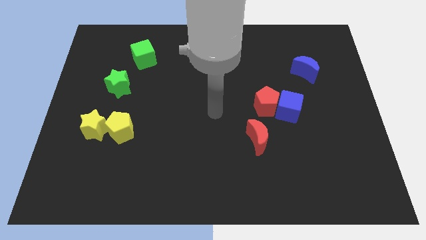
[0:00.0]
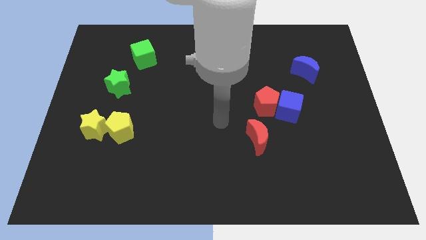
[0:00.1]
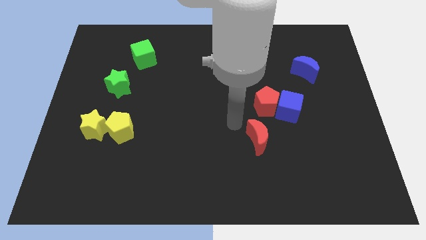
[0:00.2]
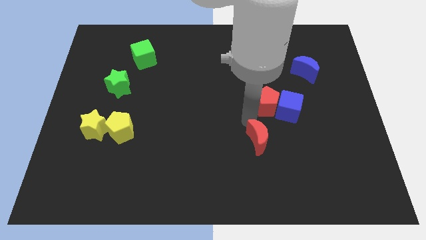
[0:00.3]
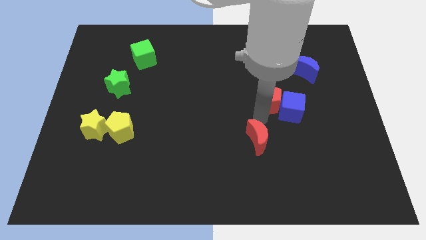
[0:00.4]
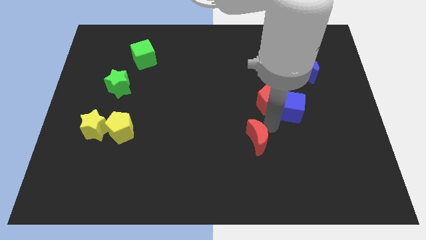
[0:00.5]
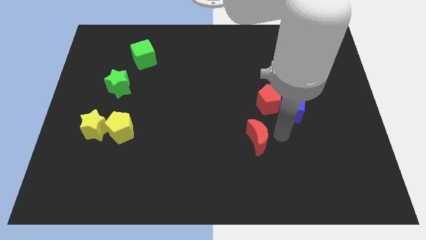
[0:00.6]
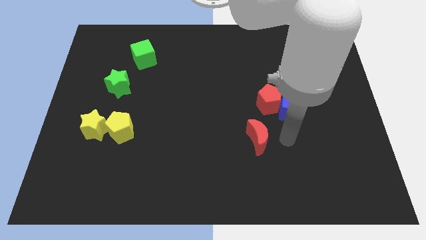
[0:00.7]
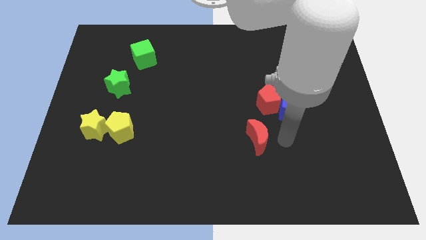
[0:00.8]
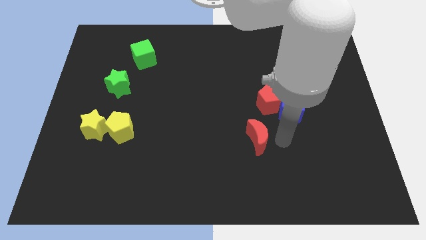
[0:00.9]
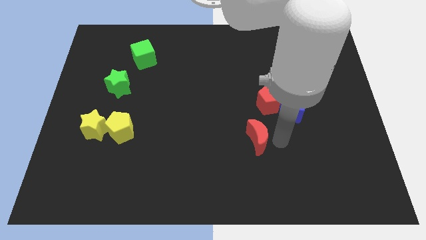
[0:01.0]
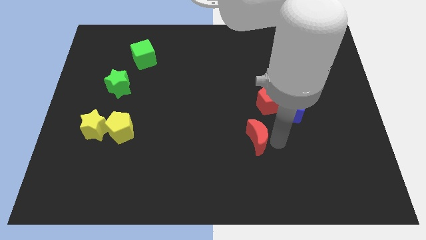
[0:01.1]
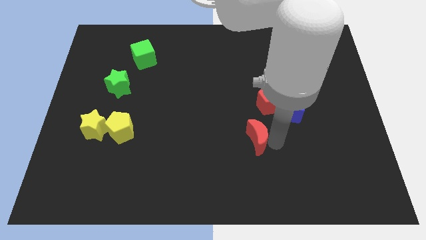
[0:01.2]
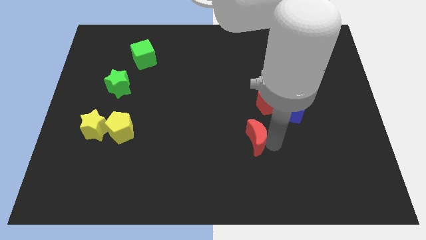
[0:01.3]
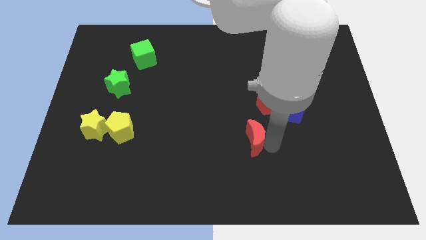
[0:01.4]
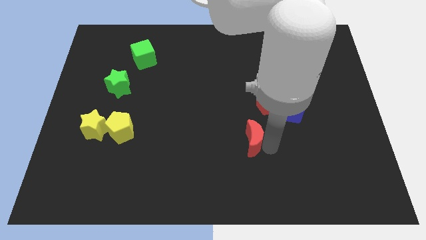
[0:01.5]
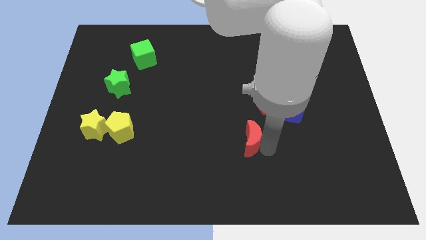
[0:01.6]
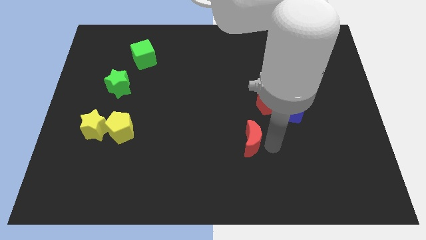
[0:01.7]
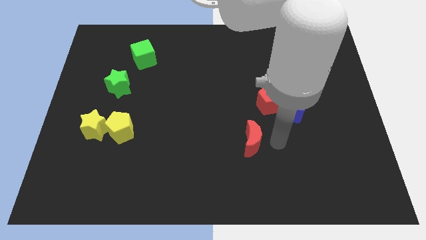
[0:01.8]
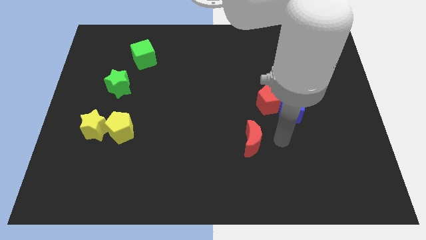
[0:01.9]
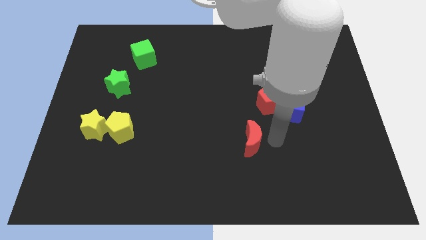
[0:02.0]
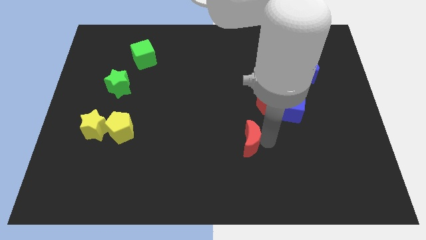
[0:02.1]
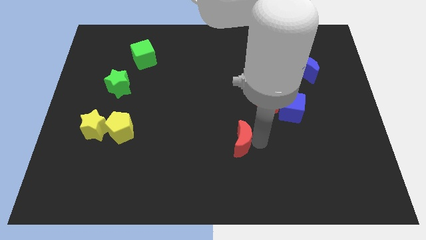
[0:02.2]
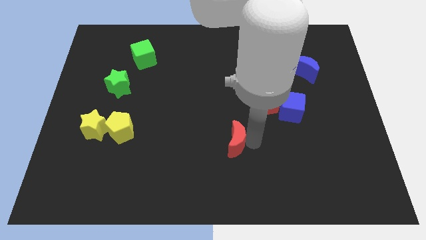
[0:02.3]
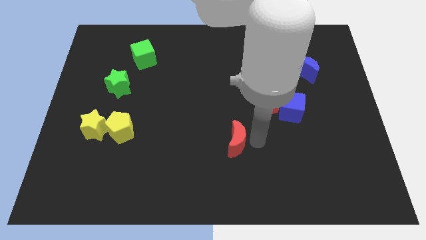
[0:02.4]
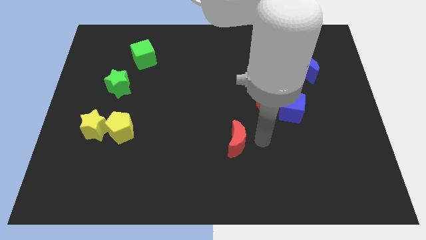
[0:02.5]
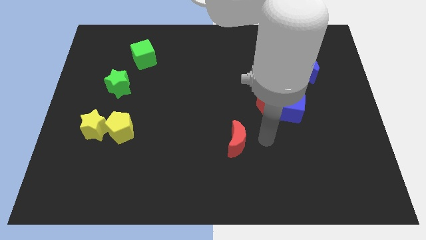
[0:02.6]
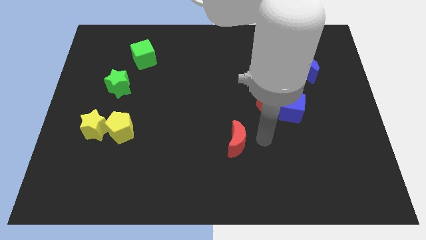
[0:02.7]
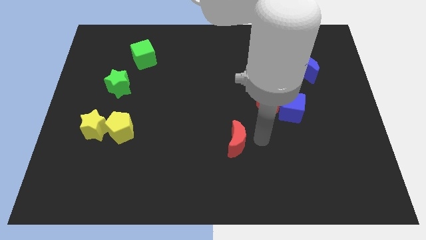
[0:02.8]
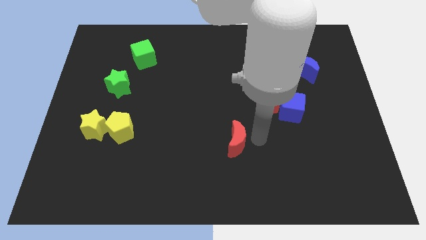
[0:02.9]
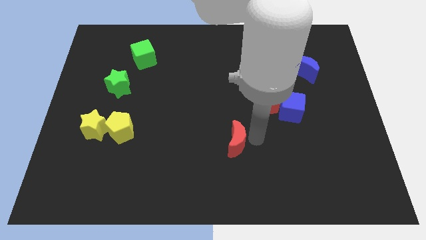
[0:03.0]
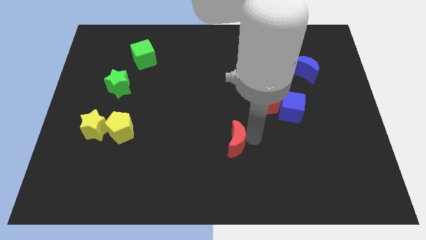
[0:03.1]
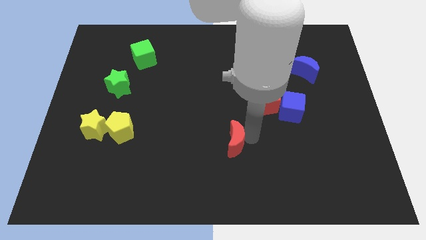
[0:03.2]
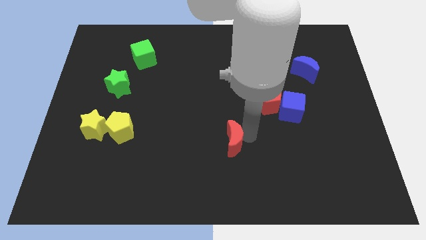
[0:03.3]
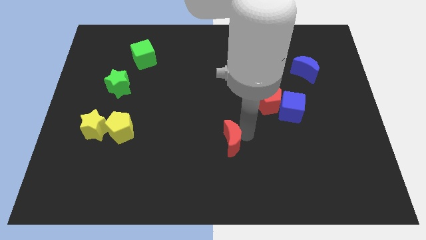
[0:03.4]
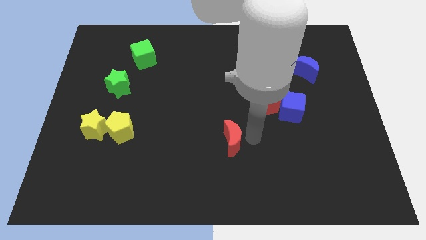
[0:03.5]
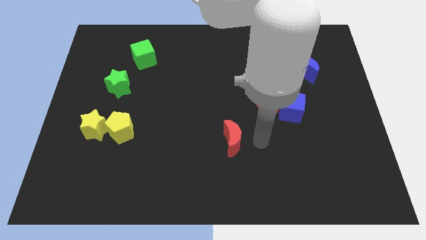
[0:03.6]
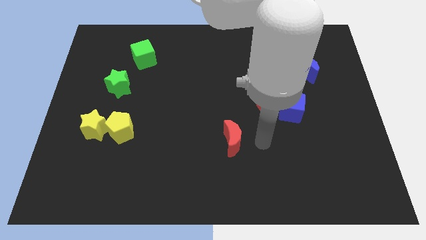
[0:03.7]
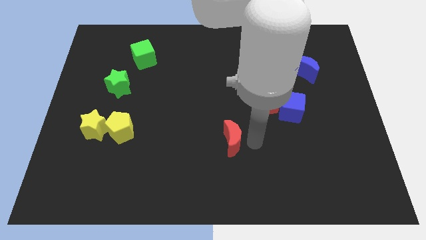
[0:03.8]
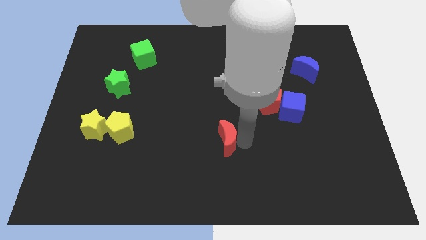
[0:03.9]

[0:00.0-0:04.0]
slightly slide the red moon to the left

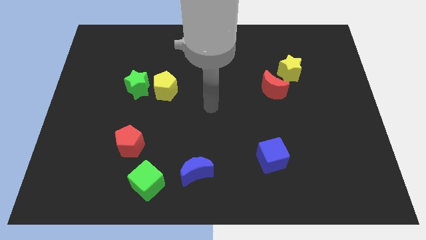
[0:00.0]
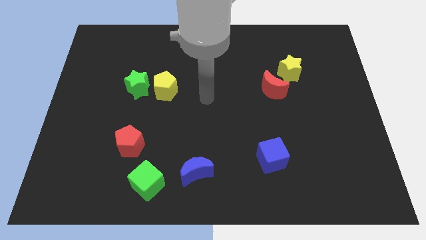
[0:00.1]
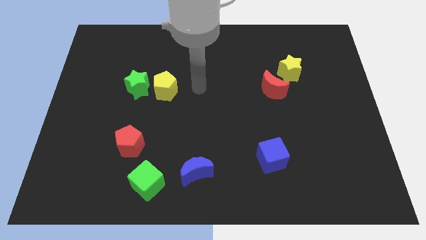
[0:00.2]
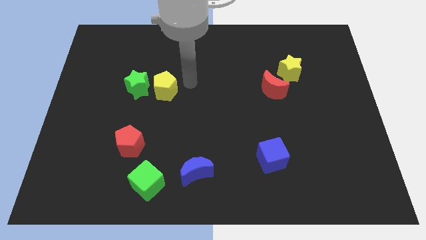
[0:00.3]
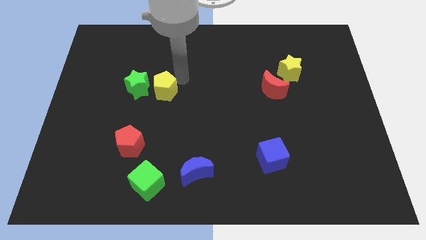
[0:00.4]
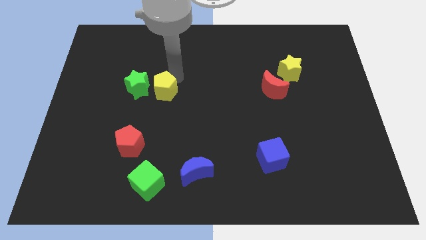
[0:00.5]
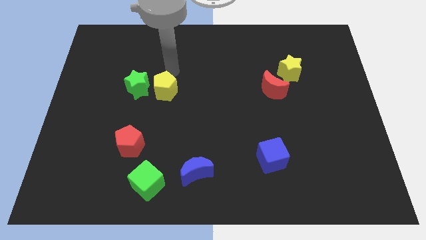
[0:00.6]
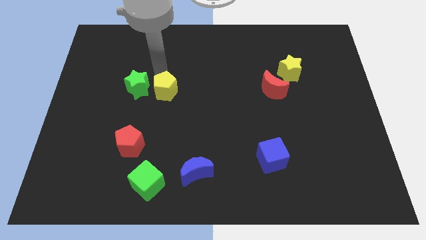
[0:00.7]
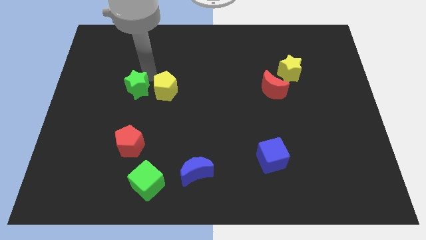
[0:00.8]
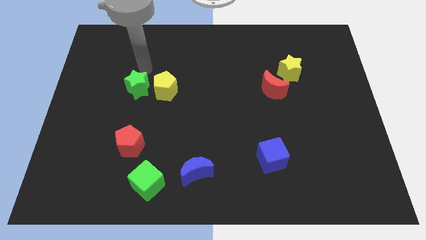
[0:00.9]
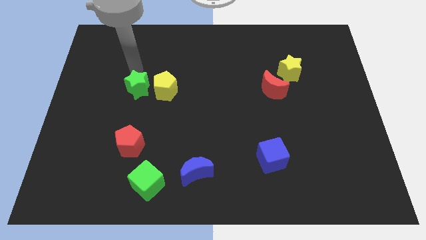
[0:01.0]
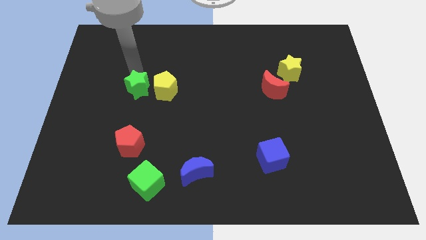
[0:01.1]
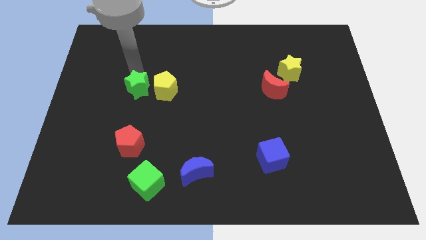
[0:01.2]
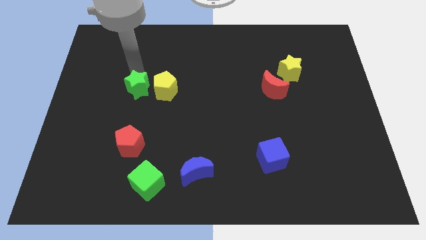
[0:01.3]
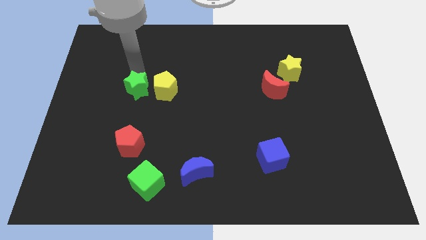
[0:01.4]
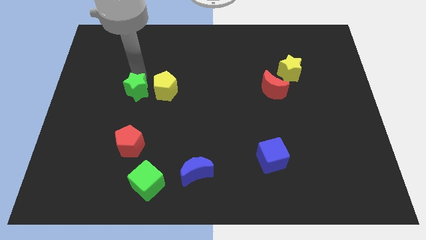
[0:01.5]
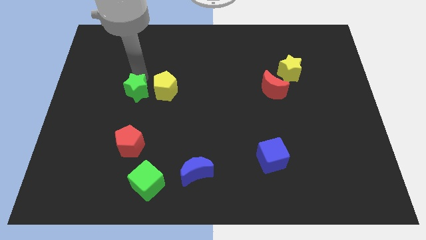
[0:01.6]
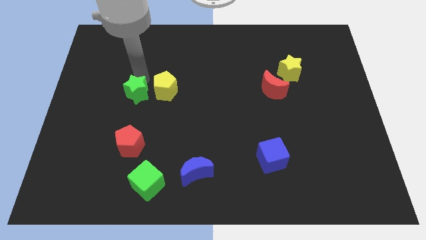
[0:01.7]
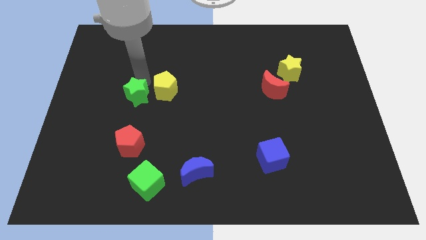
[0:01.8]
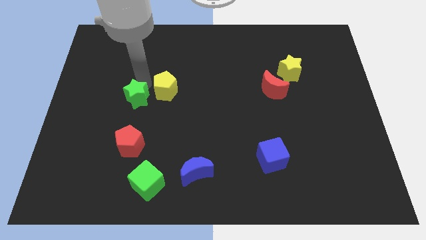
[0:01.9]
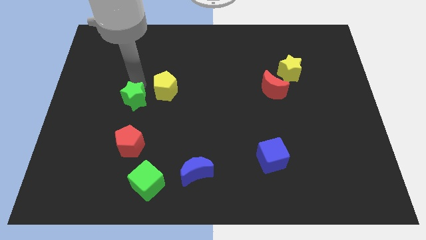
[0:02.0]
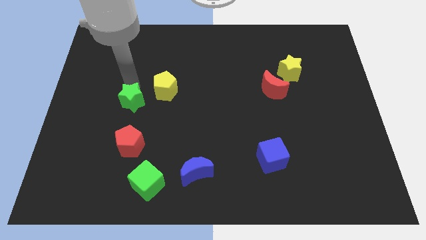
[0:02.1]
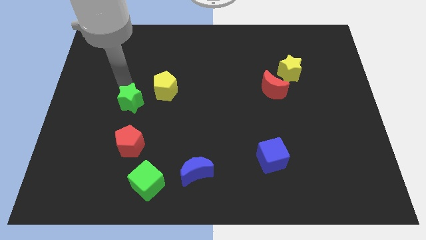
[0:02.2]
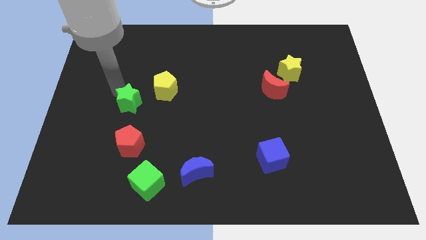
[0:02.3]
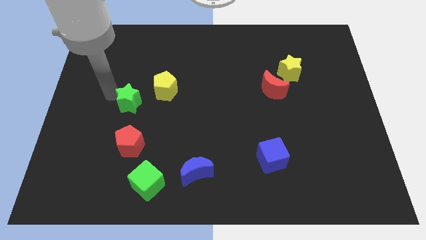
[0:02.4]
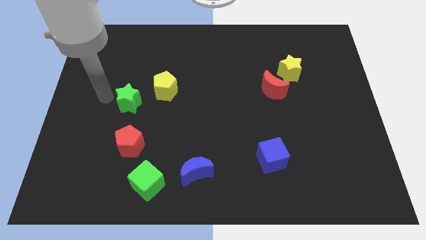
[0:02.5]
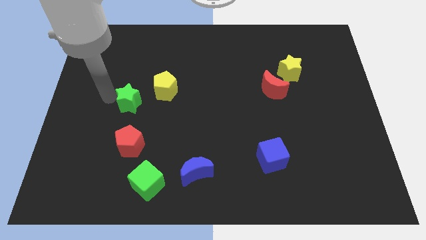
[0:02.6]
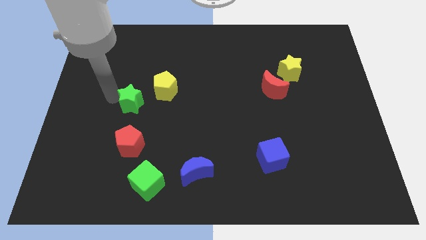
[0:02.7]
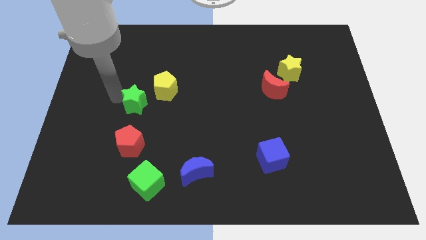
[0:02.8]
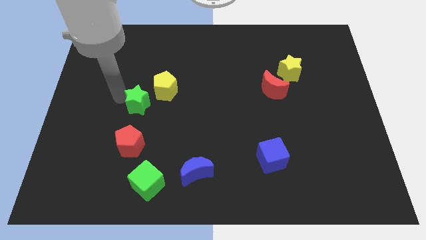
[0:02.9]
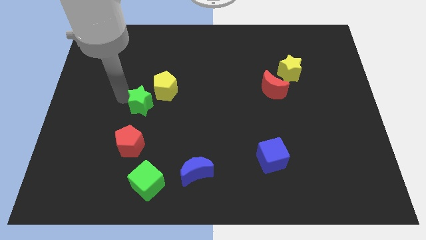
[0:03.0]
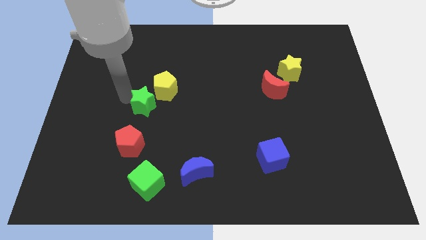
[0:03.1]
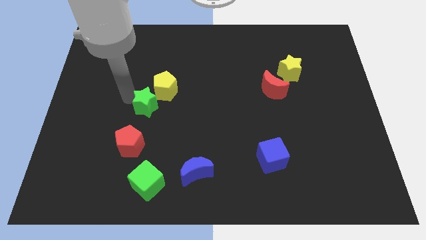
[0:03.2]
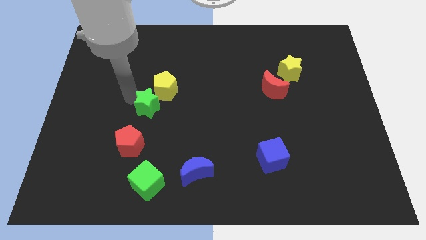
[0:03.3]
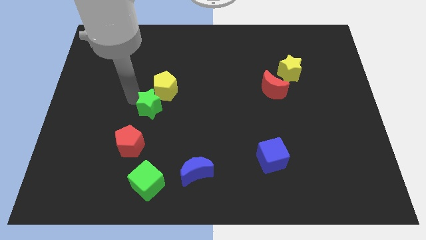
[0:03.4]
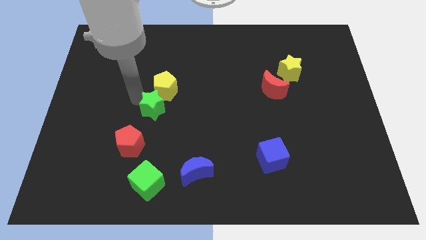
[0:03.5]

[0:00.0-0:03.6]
push the green star down and to the right diagonally slightly

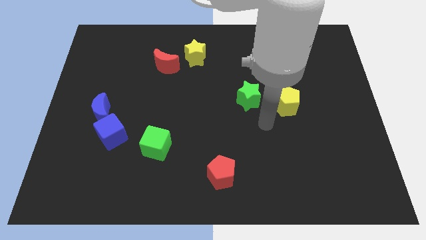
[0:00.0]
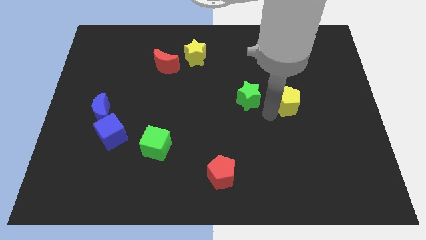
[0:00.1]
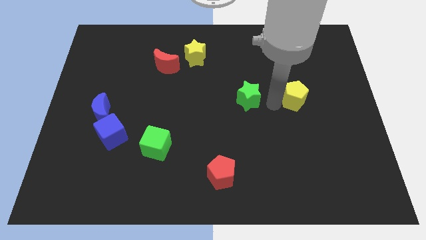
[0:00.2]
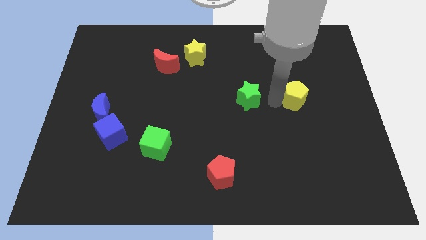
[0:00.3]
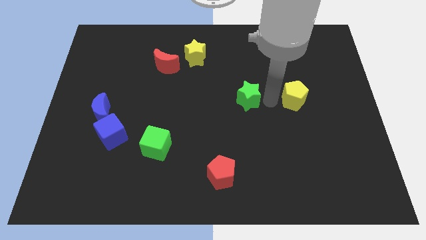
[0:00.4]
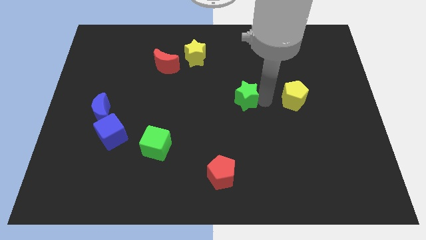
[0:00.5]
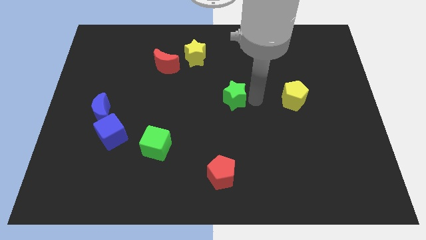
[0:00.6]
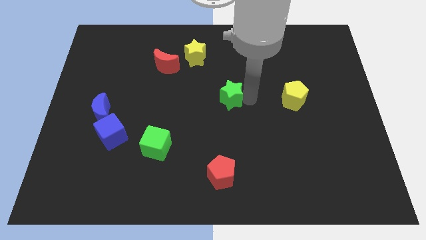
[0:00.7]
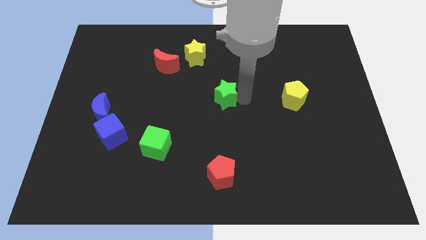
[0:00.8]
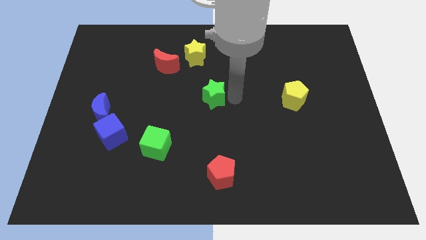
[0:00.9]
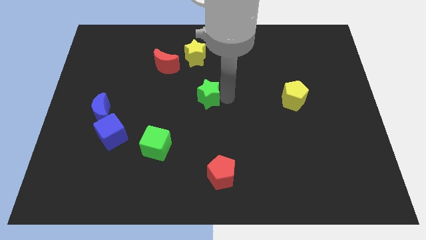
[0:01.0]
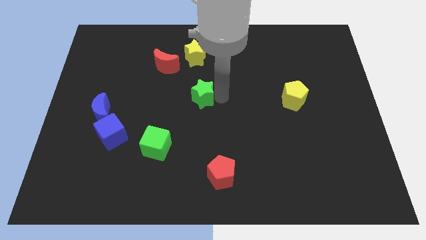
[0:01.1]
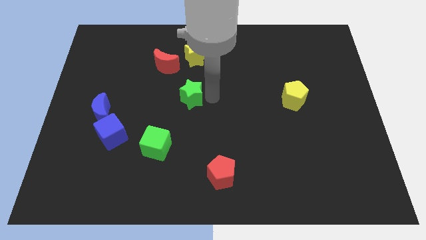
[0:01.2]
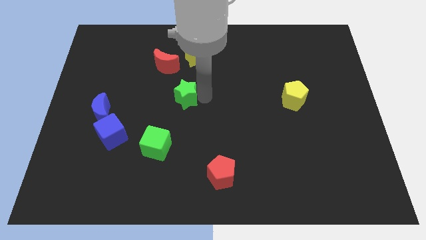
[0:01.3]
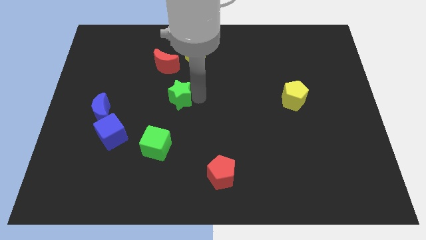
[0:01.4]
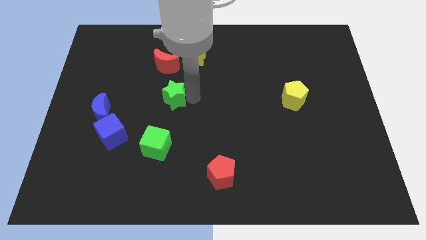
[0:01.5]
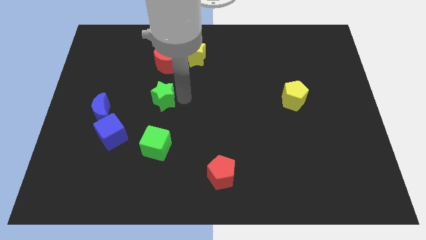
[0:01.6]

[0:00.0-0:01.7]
slide the green star left
